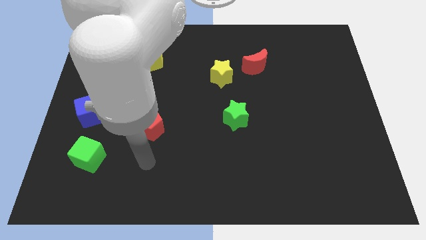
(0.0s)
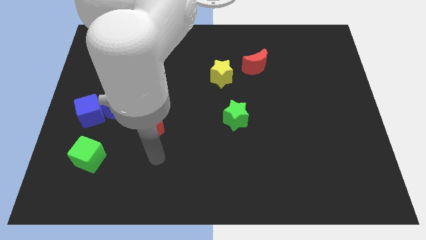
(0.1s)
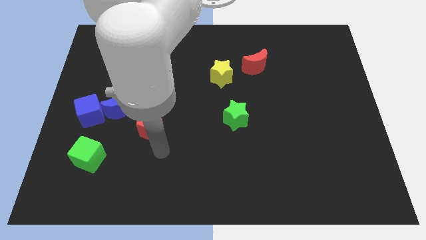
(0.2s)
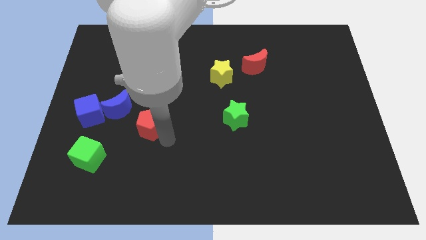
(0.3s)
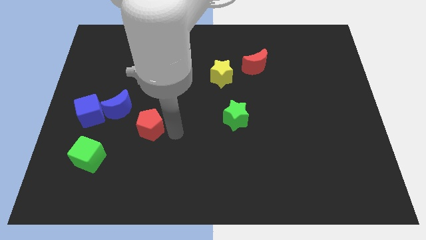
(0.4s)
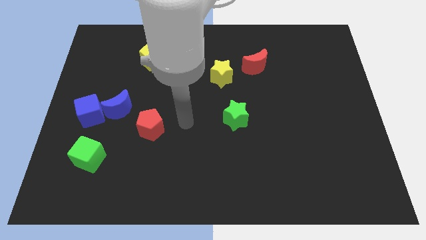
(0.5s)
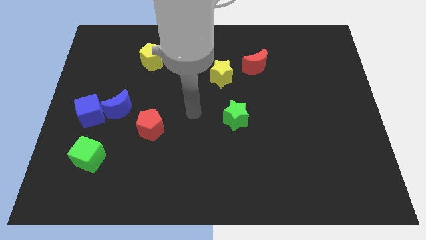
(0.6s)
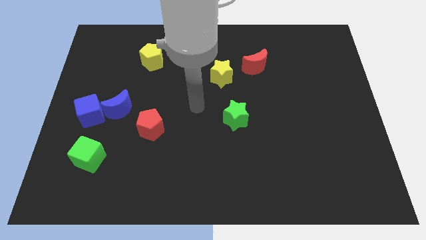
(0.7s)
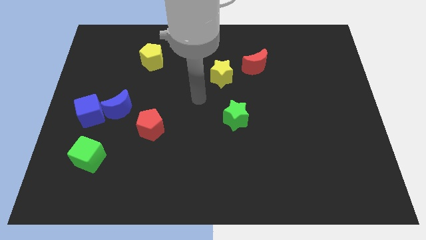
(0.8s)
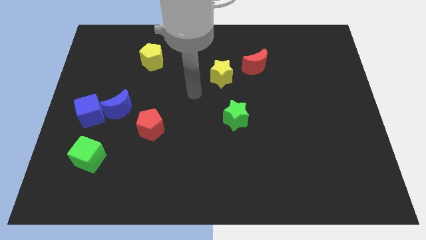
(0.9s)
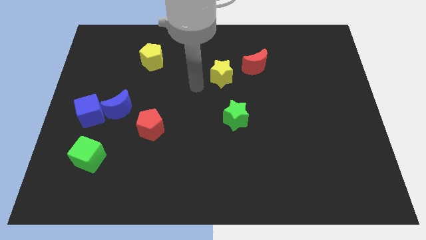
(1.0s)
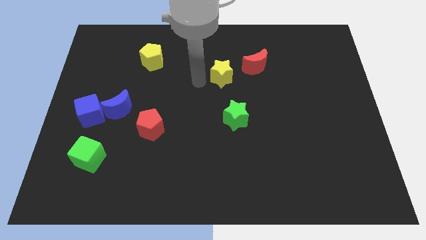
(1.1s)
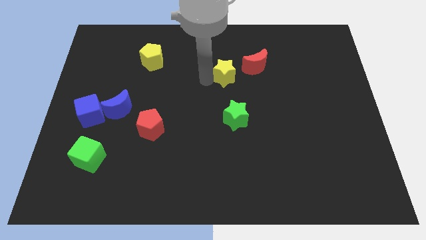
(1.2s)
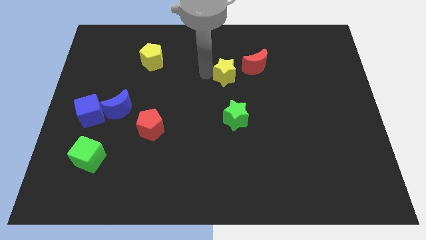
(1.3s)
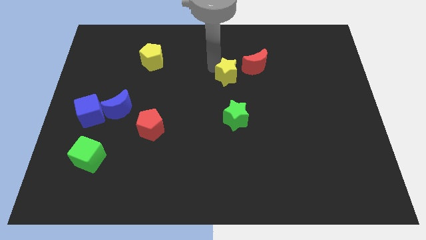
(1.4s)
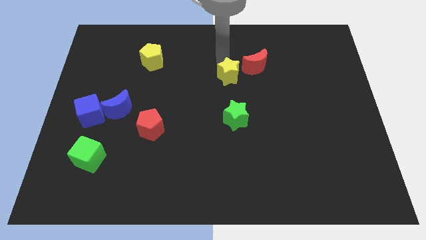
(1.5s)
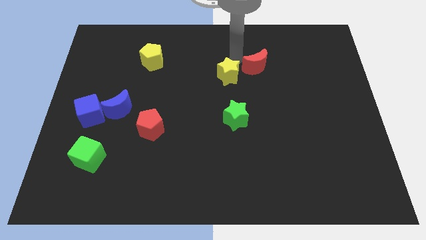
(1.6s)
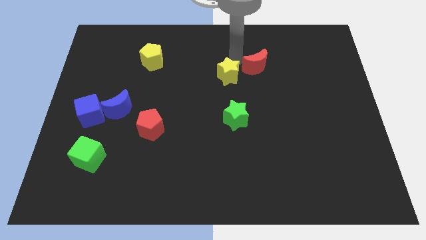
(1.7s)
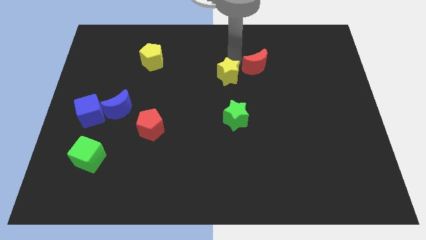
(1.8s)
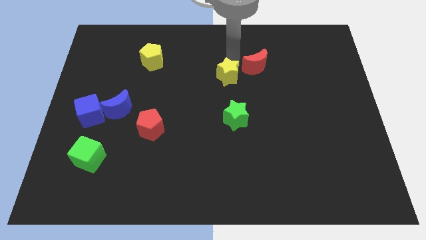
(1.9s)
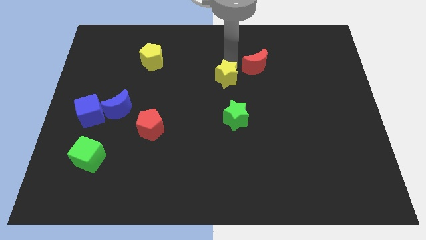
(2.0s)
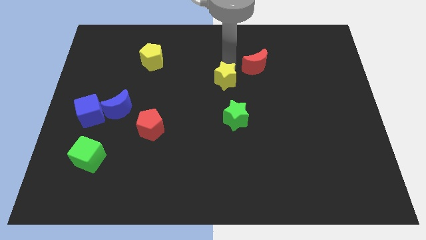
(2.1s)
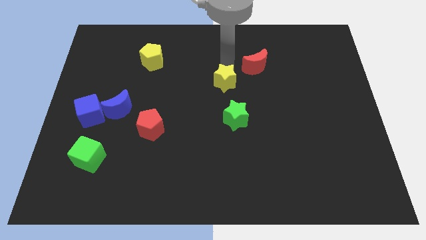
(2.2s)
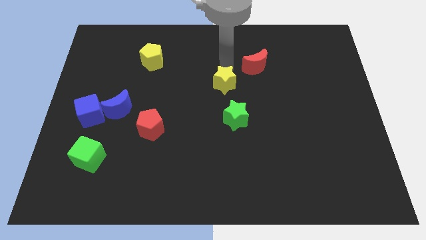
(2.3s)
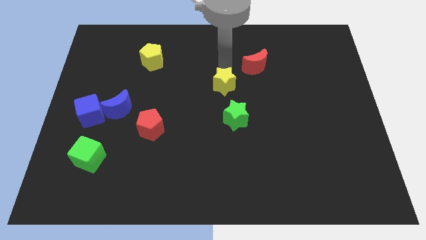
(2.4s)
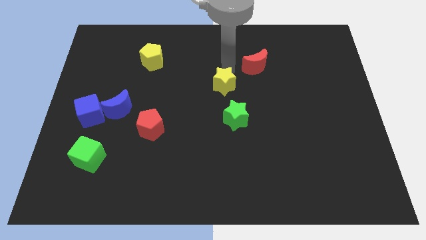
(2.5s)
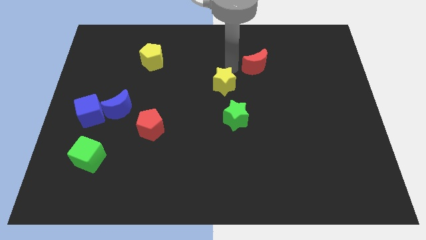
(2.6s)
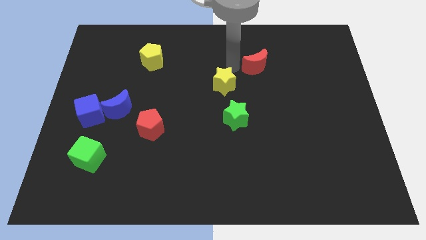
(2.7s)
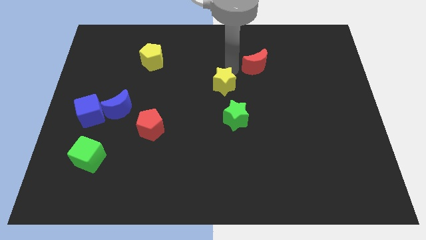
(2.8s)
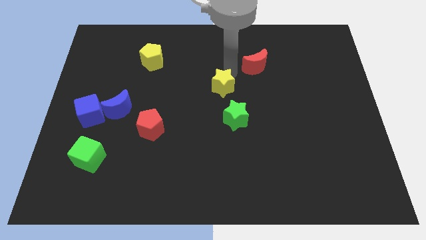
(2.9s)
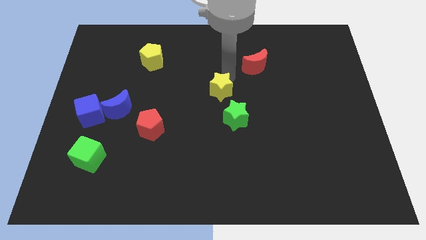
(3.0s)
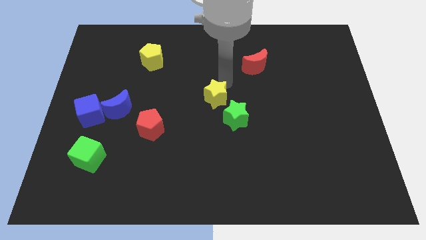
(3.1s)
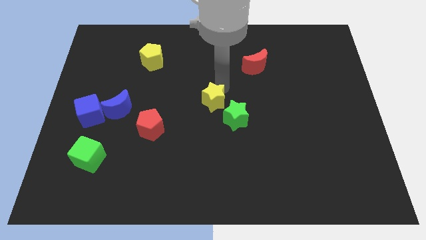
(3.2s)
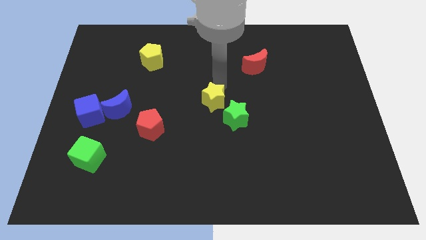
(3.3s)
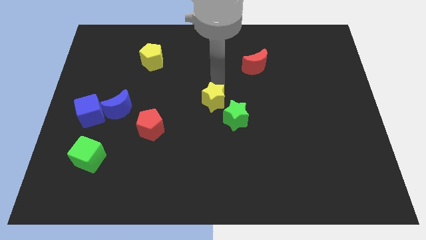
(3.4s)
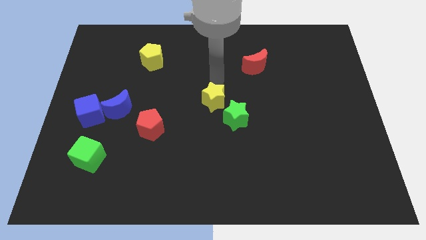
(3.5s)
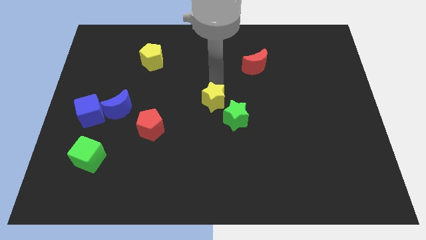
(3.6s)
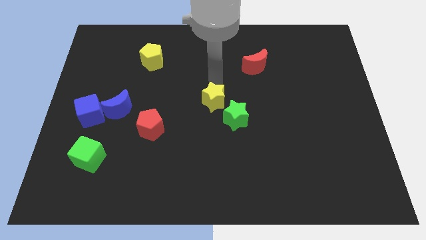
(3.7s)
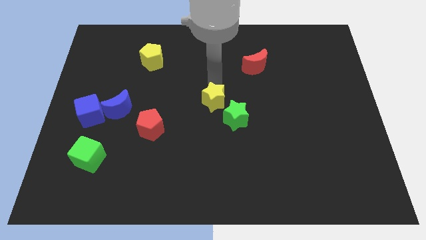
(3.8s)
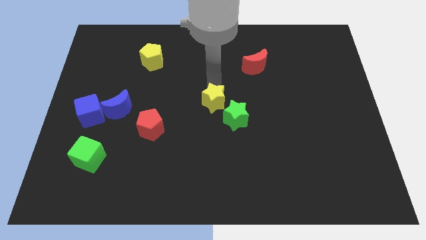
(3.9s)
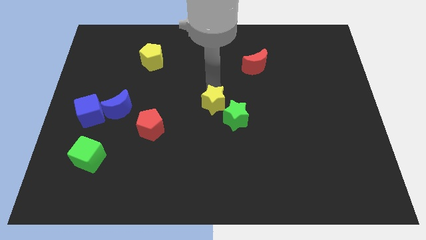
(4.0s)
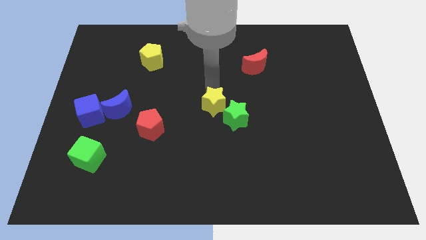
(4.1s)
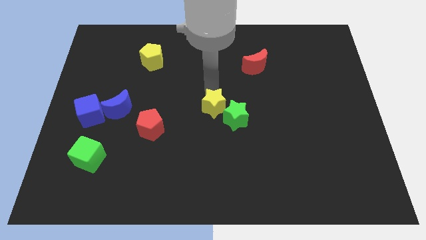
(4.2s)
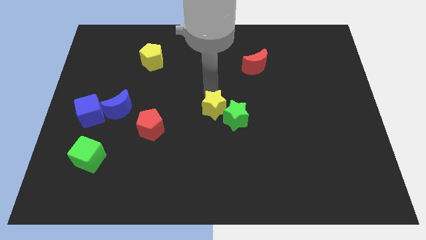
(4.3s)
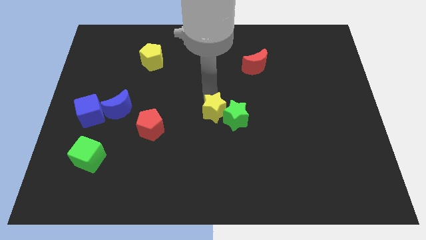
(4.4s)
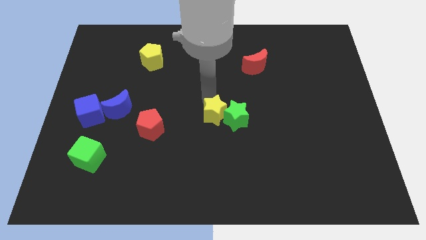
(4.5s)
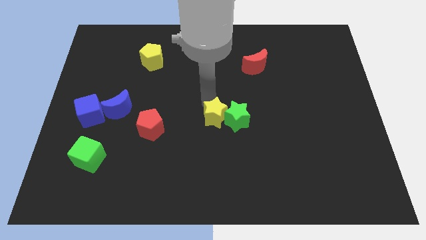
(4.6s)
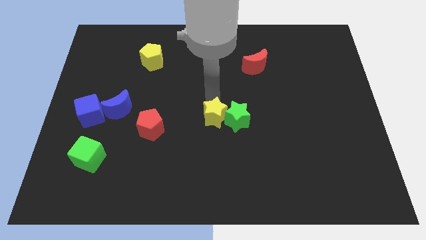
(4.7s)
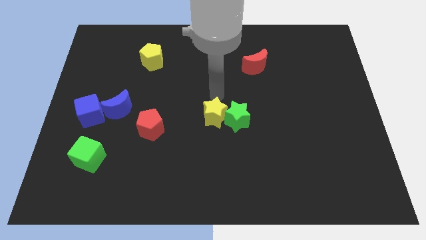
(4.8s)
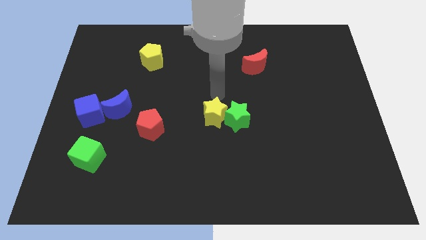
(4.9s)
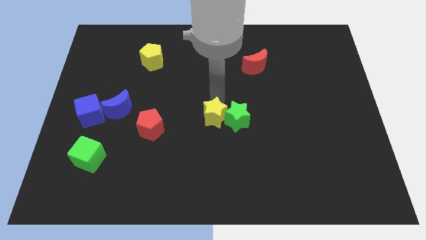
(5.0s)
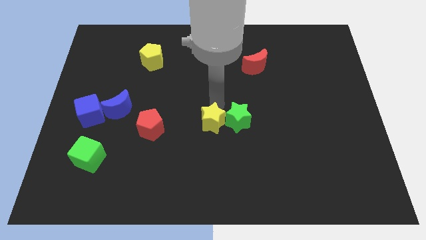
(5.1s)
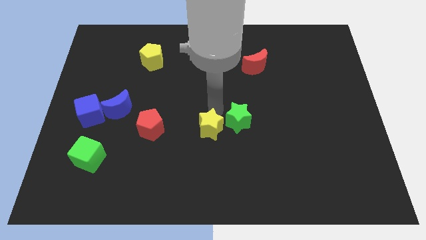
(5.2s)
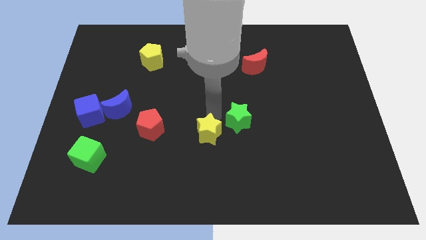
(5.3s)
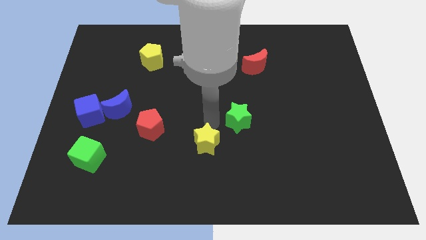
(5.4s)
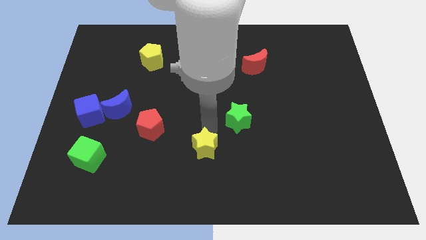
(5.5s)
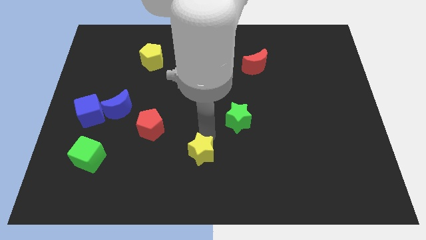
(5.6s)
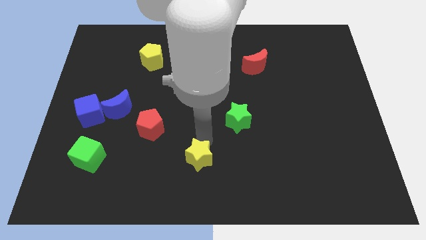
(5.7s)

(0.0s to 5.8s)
push the yellow star to the bottom side
